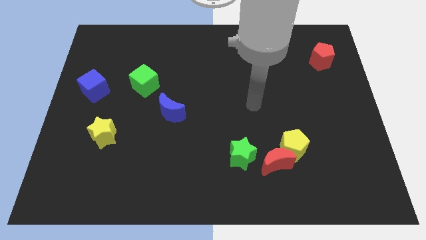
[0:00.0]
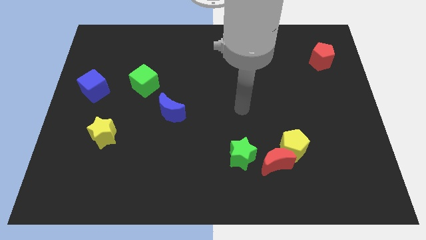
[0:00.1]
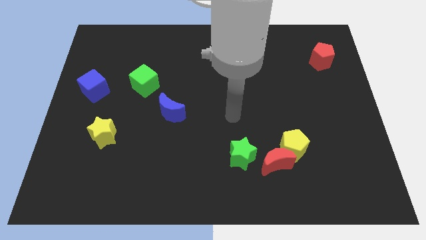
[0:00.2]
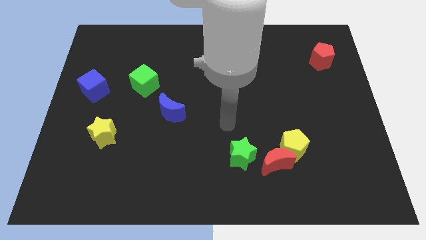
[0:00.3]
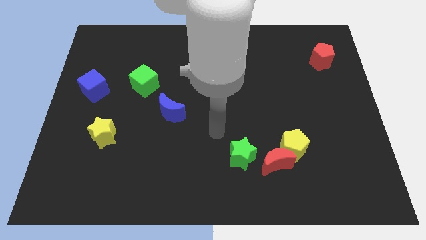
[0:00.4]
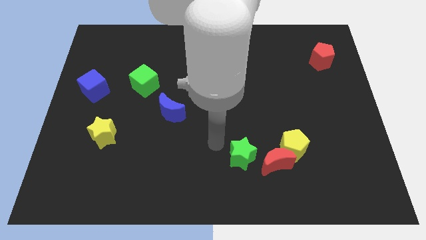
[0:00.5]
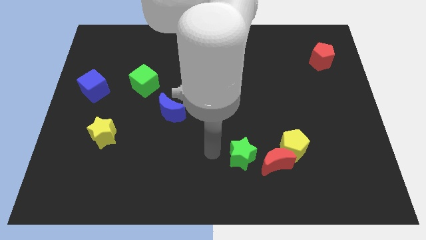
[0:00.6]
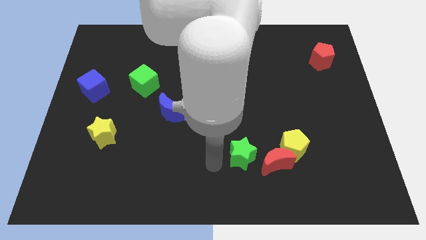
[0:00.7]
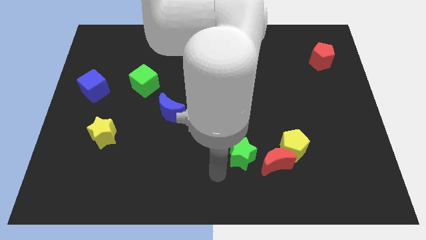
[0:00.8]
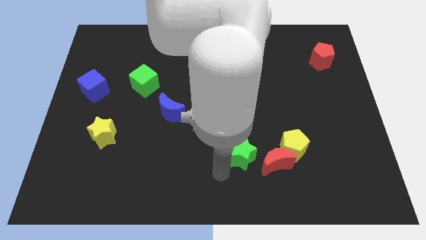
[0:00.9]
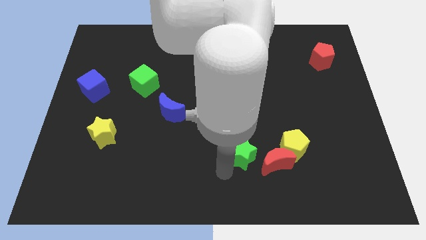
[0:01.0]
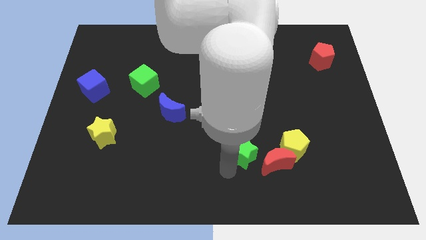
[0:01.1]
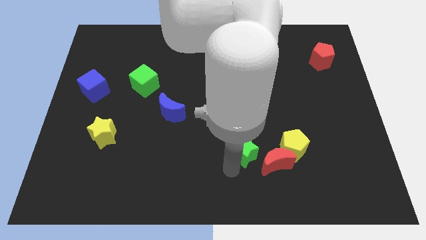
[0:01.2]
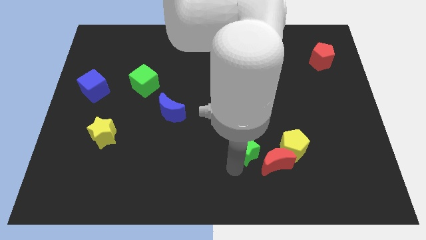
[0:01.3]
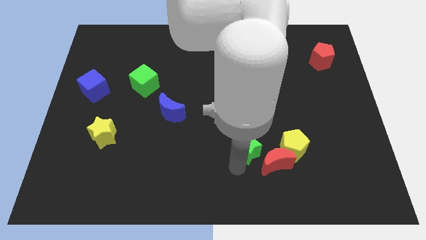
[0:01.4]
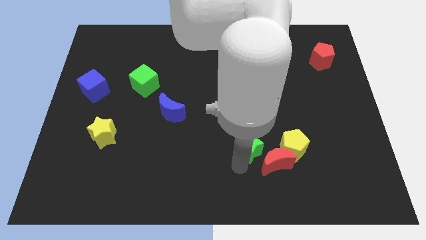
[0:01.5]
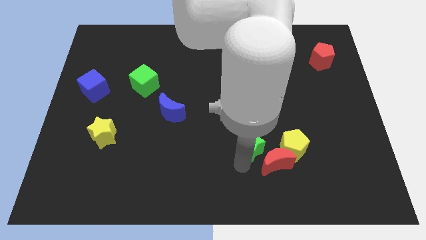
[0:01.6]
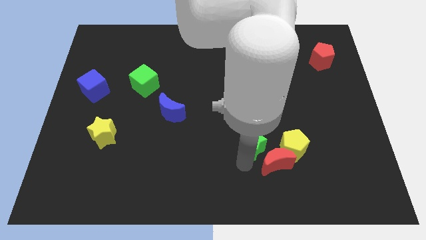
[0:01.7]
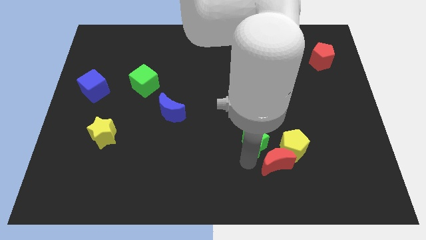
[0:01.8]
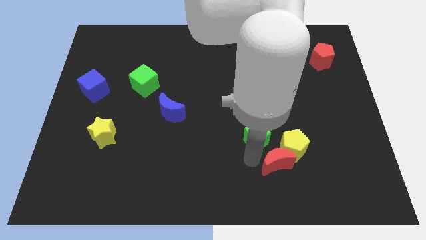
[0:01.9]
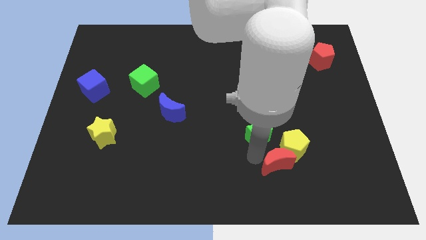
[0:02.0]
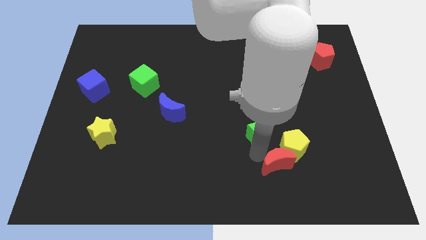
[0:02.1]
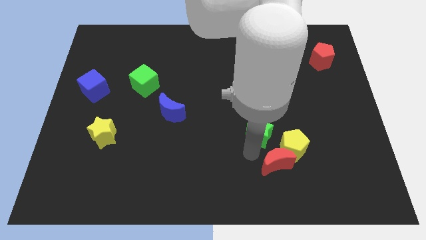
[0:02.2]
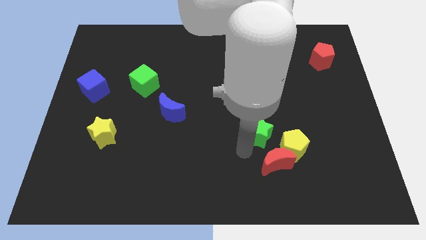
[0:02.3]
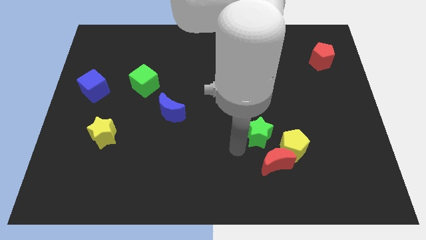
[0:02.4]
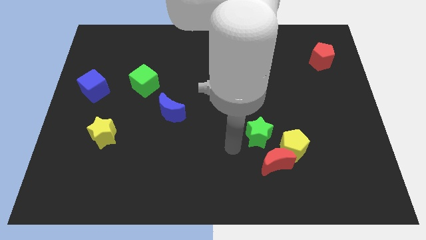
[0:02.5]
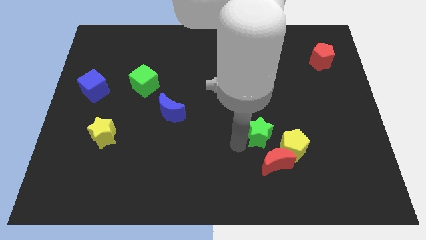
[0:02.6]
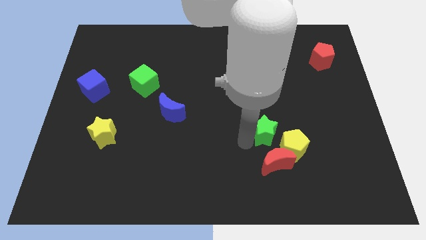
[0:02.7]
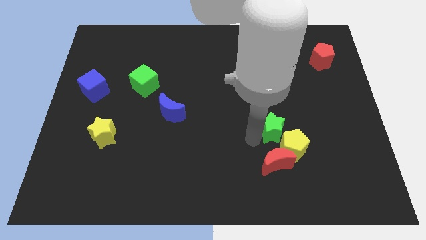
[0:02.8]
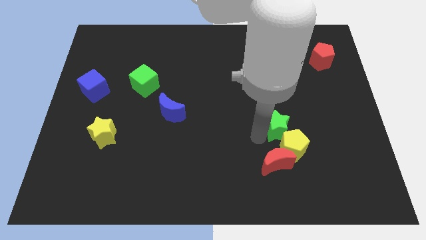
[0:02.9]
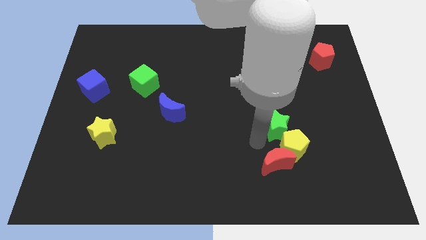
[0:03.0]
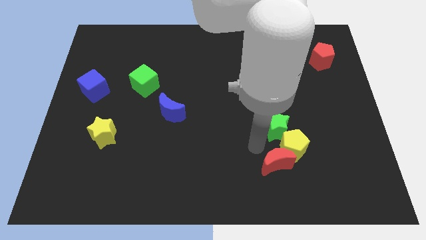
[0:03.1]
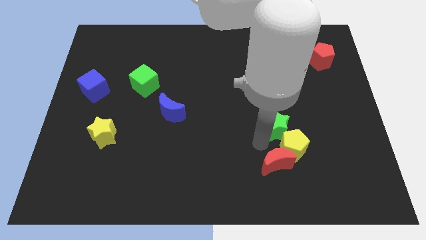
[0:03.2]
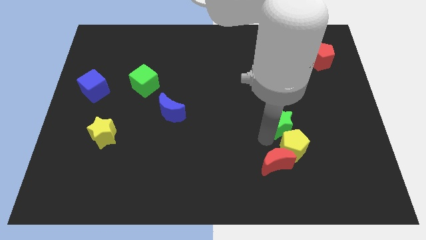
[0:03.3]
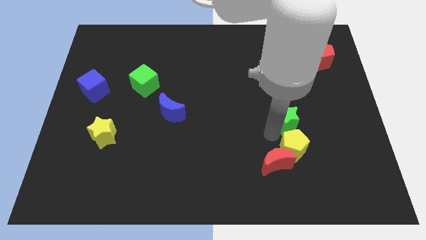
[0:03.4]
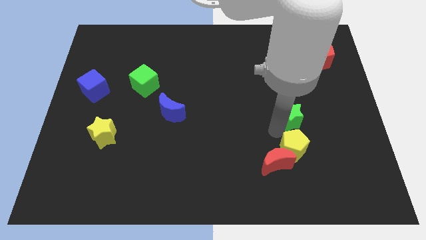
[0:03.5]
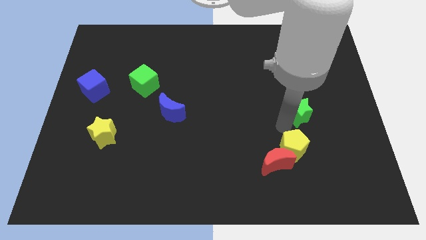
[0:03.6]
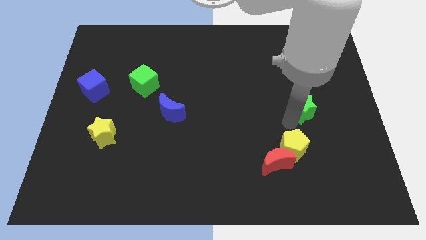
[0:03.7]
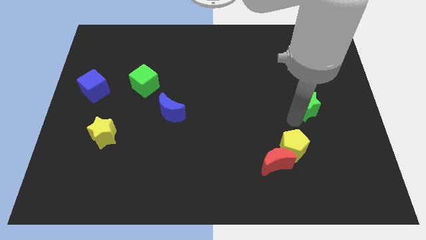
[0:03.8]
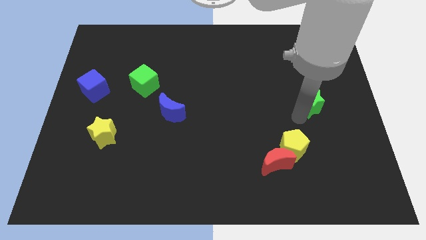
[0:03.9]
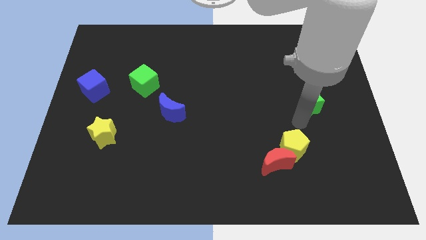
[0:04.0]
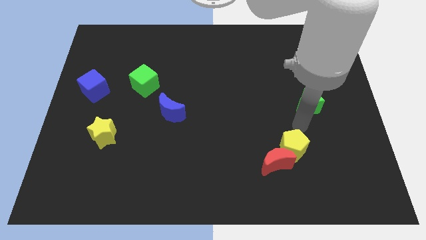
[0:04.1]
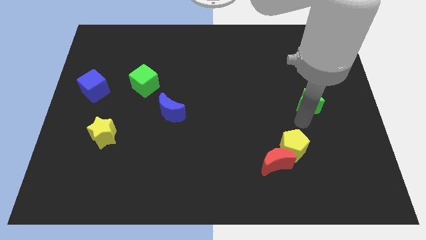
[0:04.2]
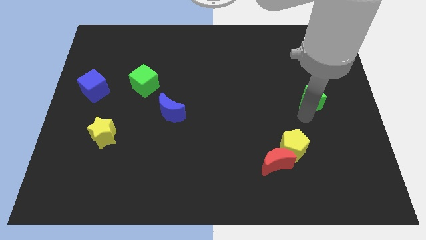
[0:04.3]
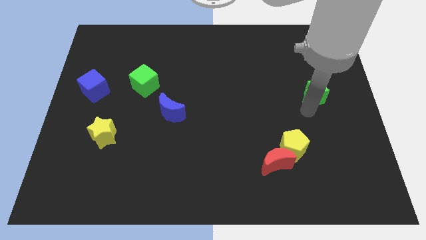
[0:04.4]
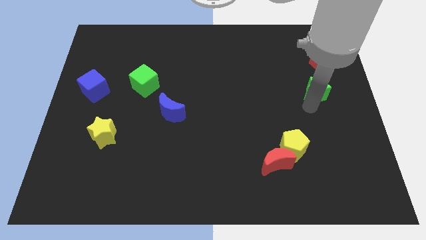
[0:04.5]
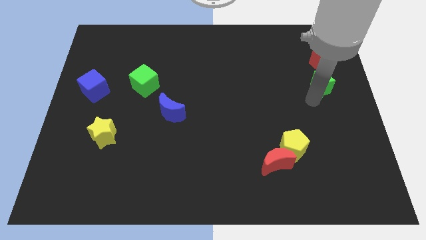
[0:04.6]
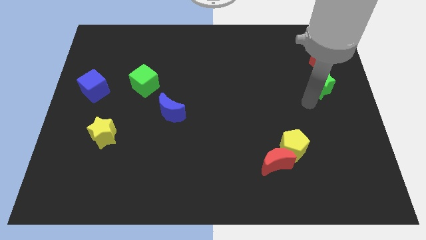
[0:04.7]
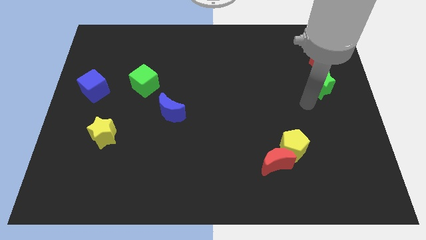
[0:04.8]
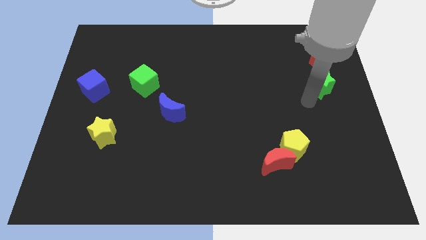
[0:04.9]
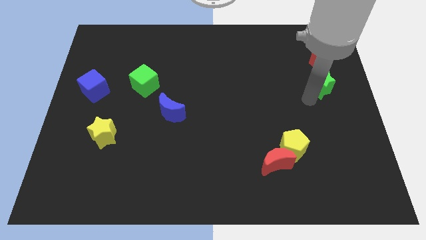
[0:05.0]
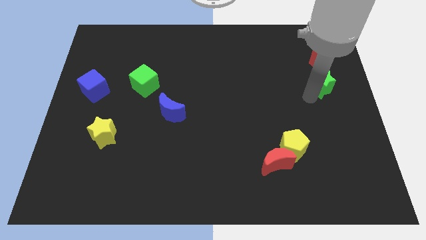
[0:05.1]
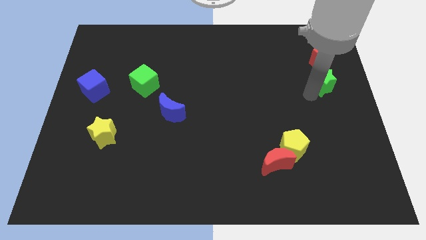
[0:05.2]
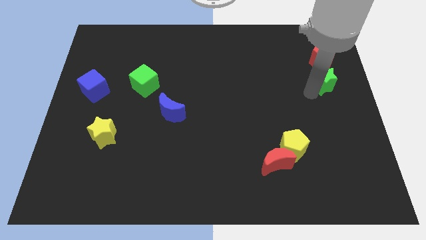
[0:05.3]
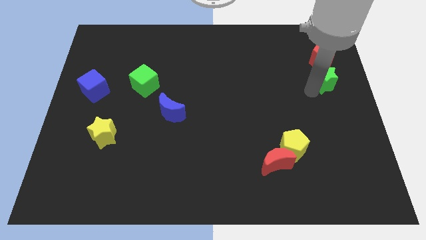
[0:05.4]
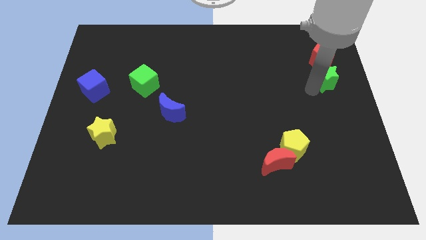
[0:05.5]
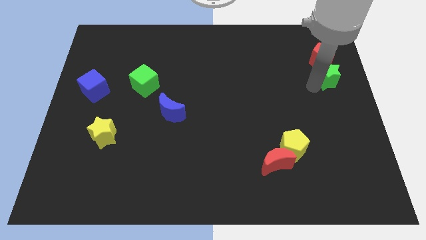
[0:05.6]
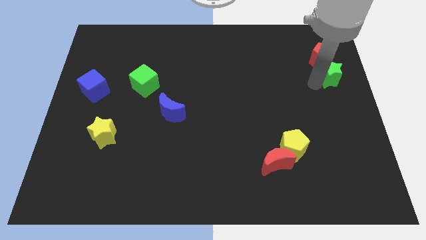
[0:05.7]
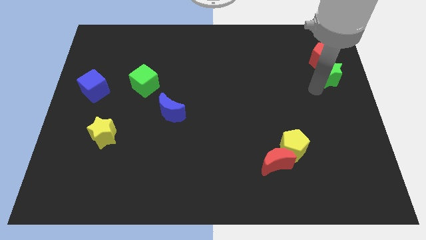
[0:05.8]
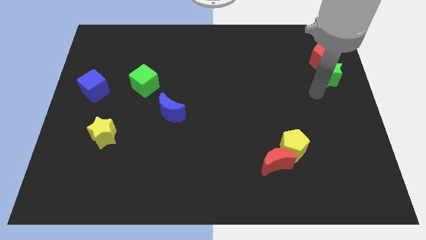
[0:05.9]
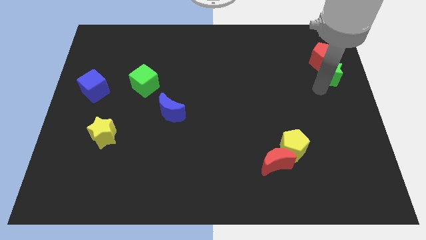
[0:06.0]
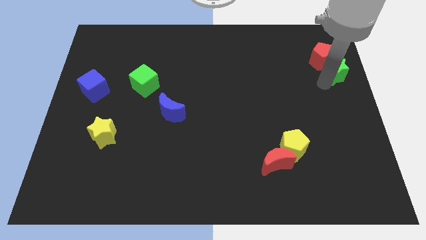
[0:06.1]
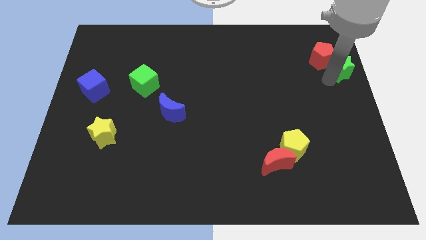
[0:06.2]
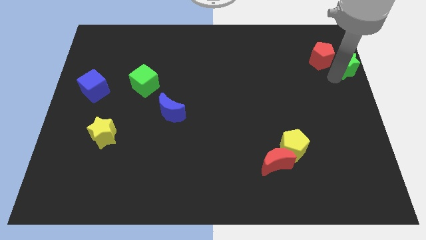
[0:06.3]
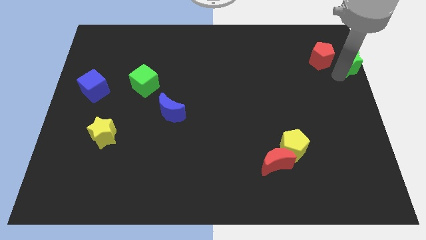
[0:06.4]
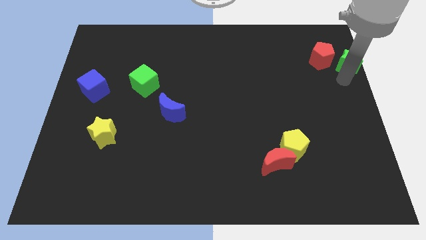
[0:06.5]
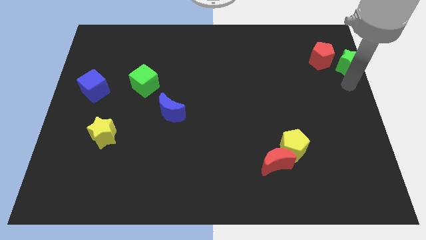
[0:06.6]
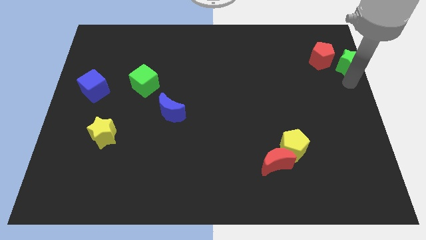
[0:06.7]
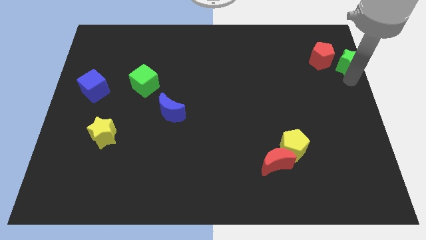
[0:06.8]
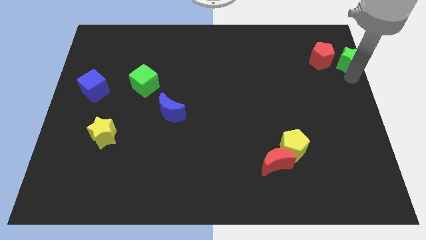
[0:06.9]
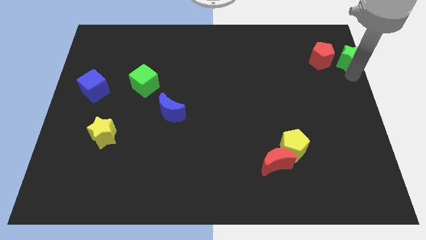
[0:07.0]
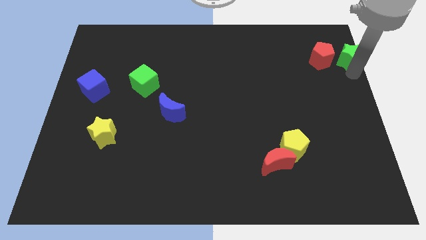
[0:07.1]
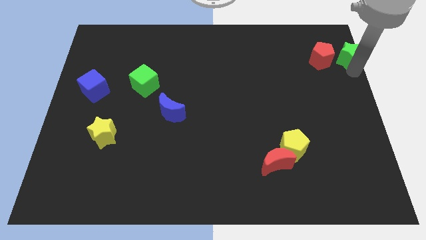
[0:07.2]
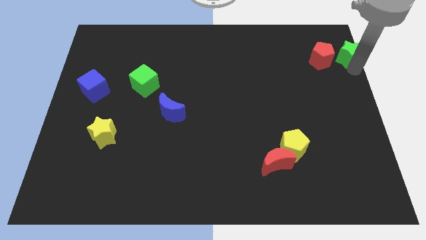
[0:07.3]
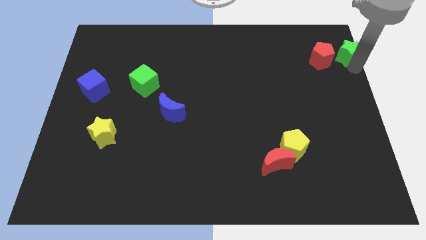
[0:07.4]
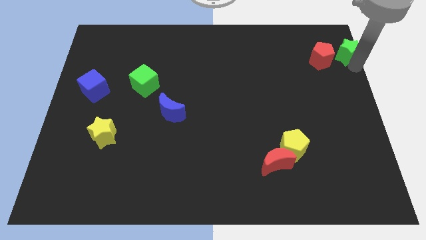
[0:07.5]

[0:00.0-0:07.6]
put the green star to the upper right corner
